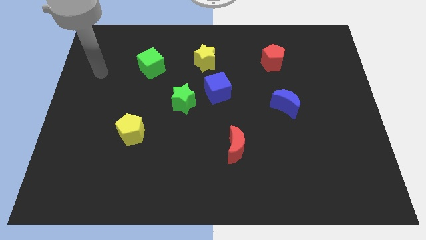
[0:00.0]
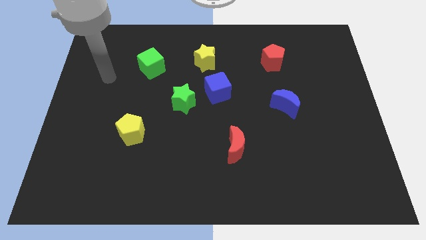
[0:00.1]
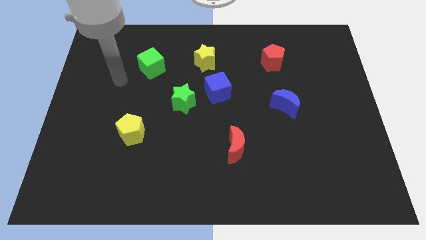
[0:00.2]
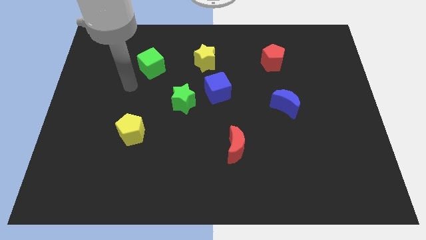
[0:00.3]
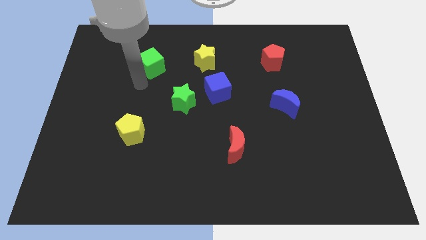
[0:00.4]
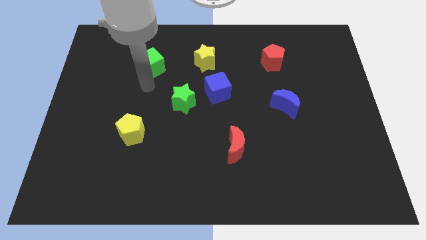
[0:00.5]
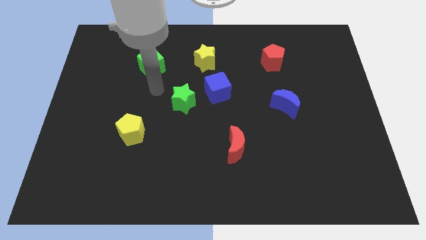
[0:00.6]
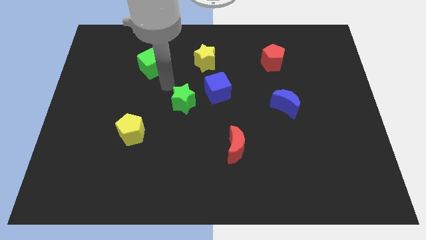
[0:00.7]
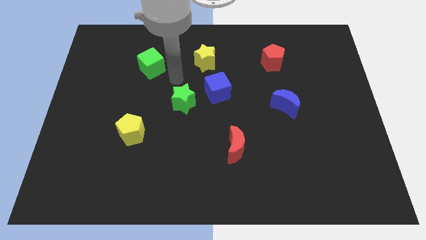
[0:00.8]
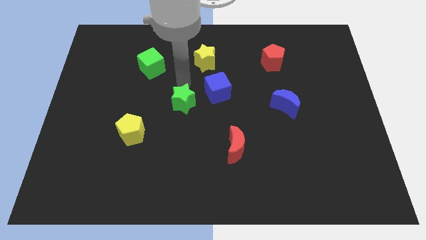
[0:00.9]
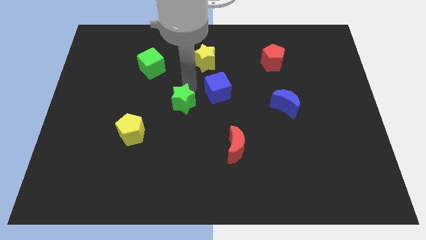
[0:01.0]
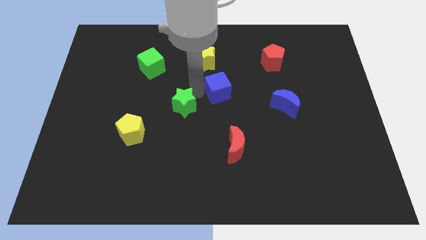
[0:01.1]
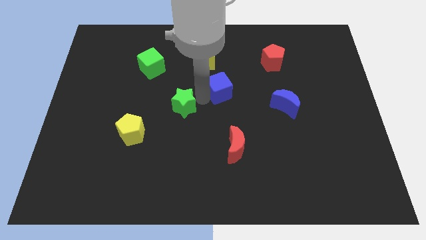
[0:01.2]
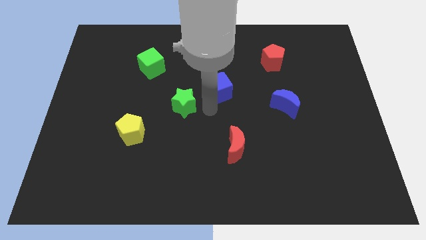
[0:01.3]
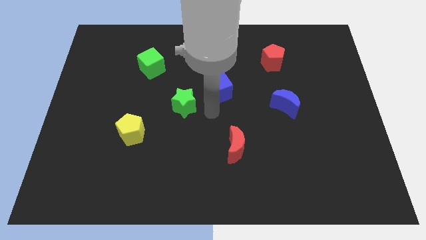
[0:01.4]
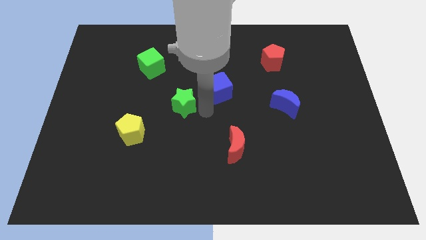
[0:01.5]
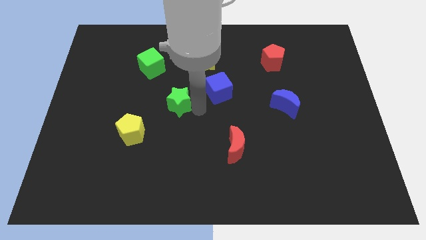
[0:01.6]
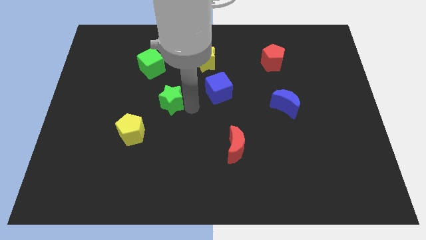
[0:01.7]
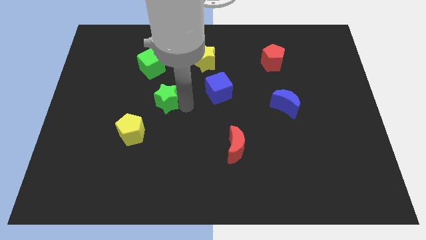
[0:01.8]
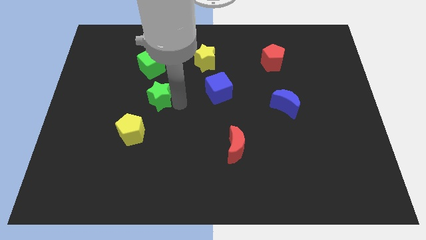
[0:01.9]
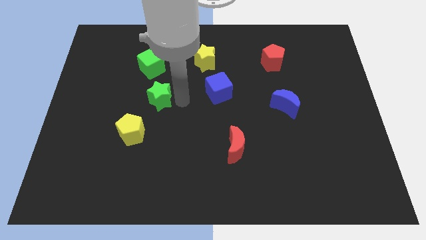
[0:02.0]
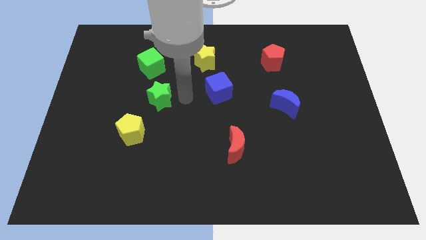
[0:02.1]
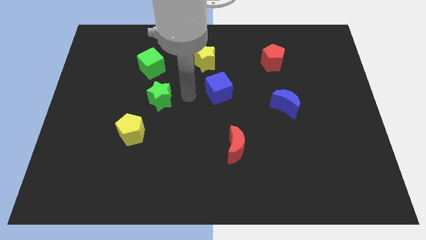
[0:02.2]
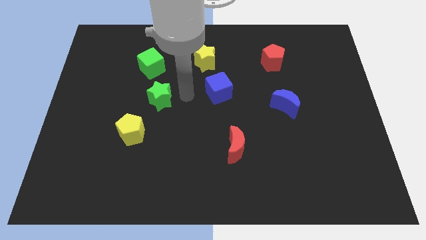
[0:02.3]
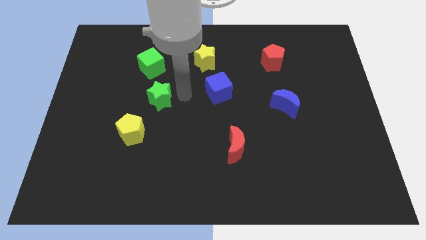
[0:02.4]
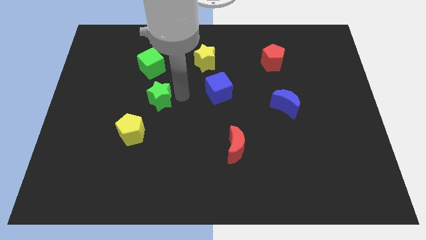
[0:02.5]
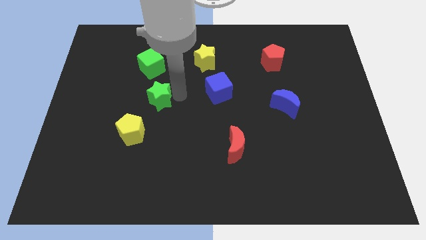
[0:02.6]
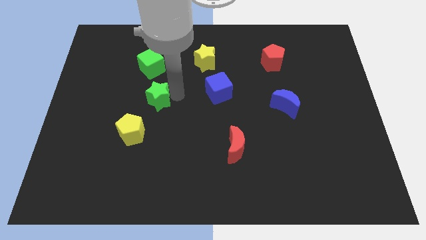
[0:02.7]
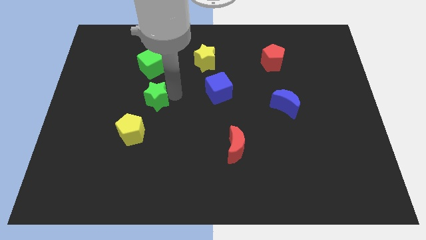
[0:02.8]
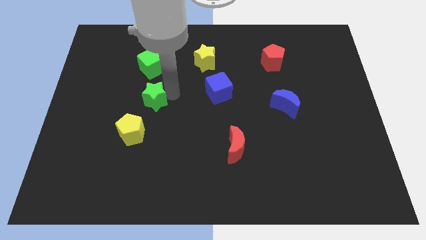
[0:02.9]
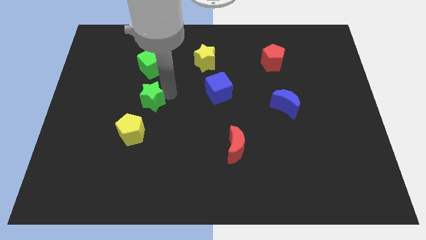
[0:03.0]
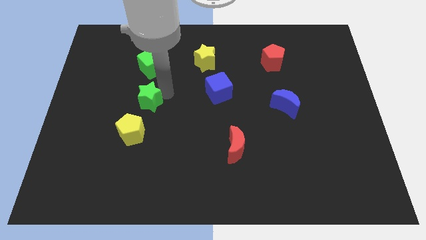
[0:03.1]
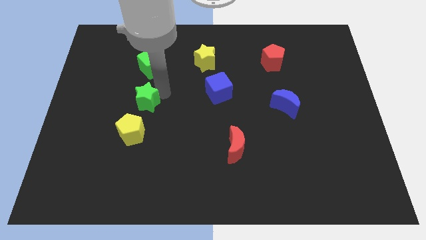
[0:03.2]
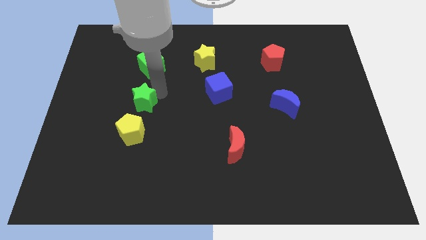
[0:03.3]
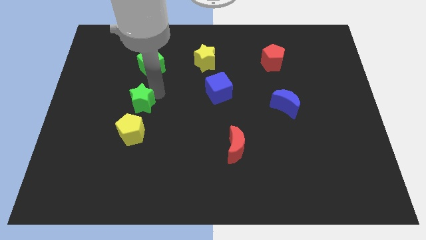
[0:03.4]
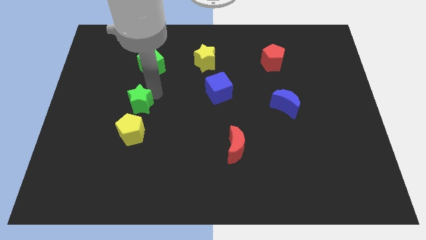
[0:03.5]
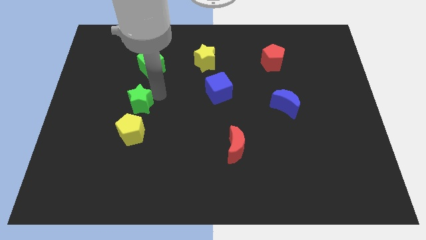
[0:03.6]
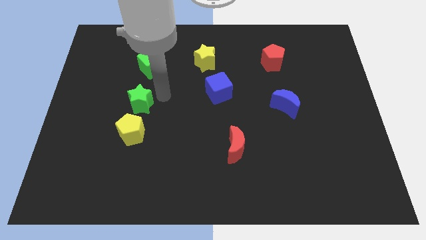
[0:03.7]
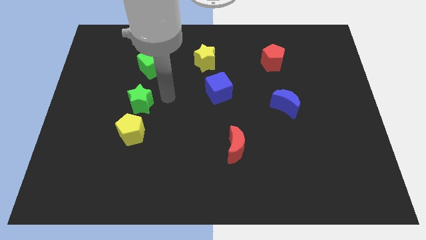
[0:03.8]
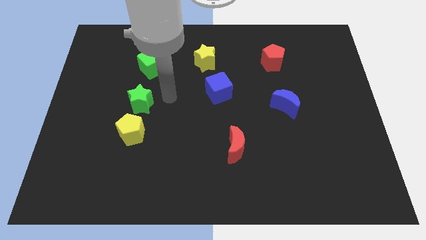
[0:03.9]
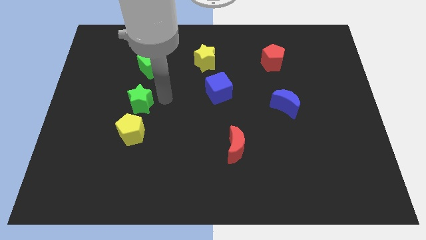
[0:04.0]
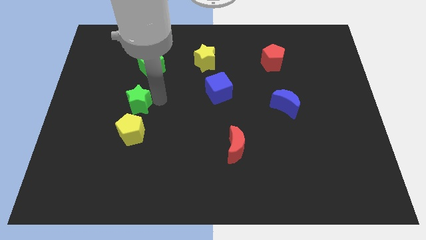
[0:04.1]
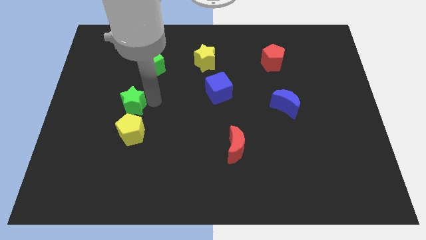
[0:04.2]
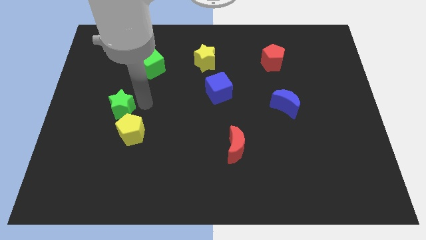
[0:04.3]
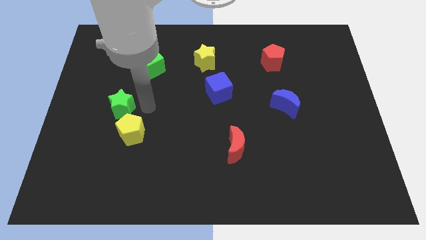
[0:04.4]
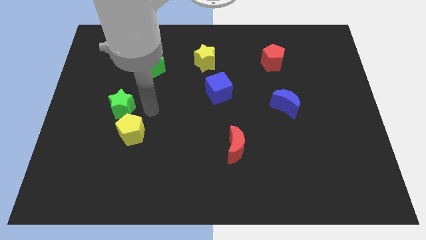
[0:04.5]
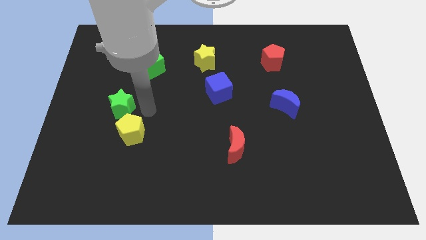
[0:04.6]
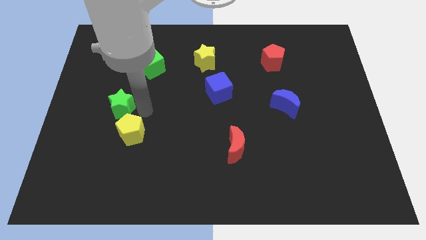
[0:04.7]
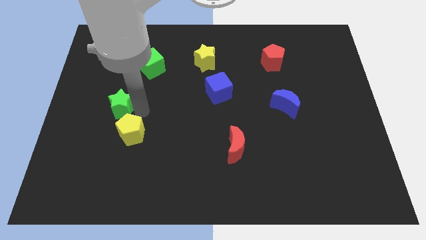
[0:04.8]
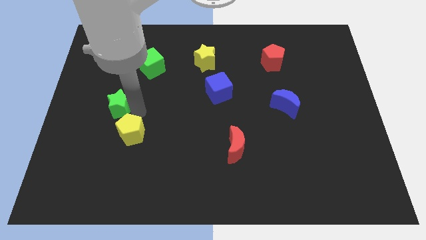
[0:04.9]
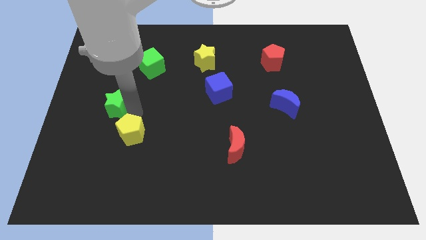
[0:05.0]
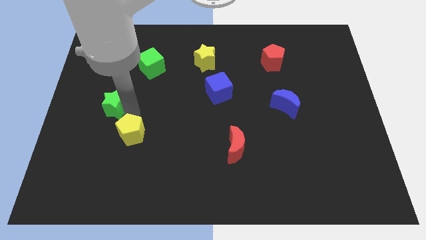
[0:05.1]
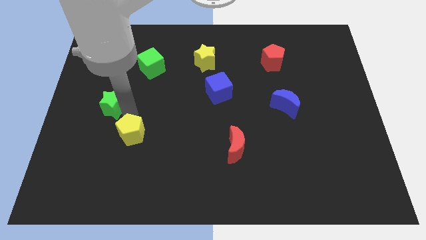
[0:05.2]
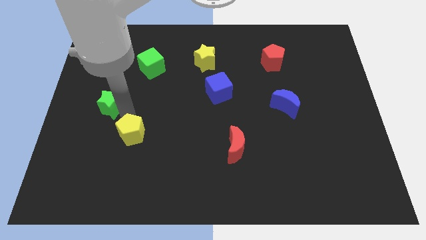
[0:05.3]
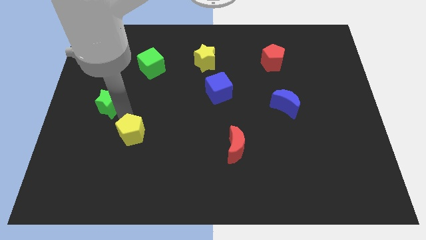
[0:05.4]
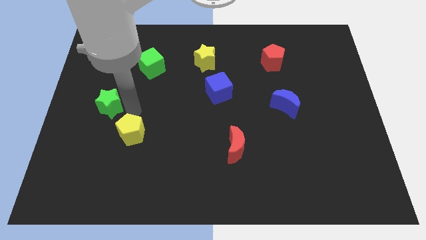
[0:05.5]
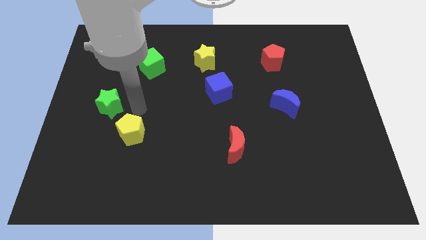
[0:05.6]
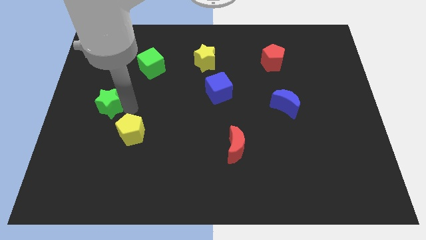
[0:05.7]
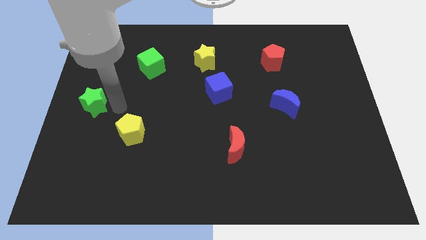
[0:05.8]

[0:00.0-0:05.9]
put the green star to the center left

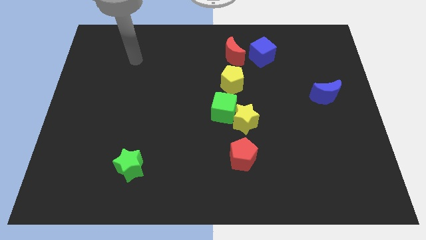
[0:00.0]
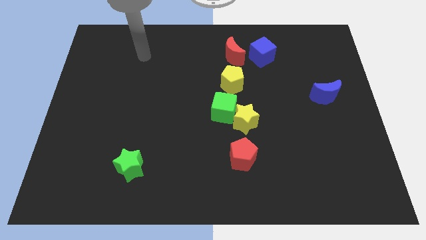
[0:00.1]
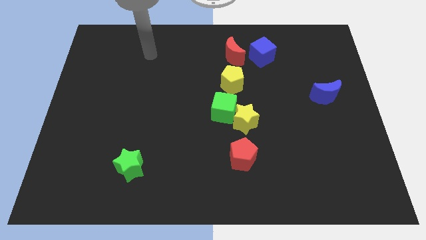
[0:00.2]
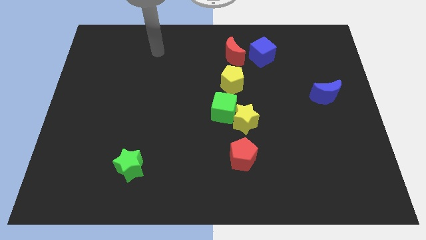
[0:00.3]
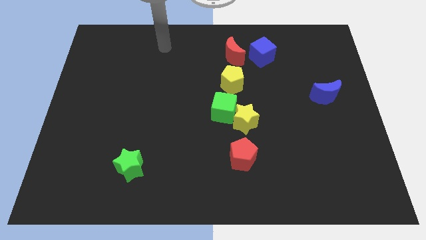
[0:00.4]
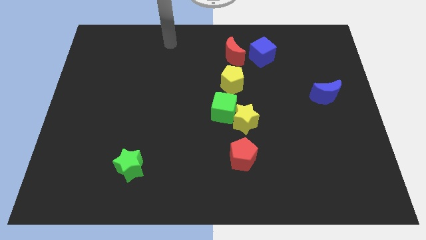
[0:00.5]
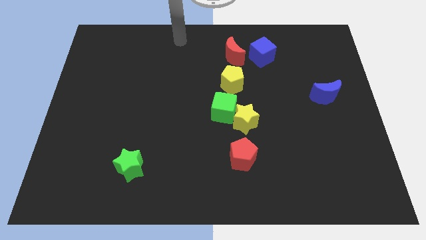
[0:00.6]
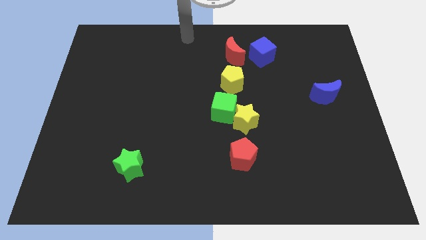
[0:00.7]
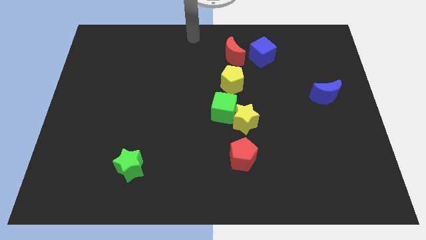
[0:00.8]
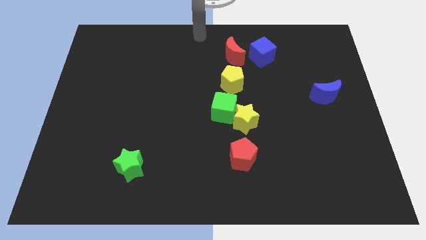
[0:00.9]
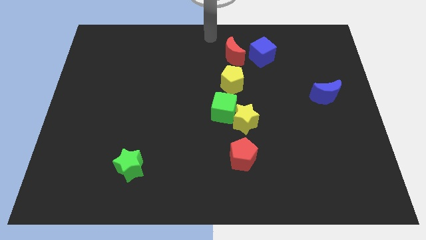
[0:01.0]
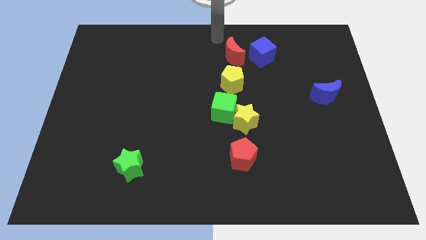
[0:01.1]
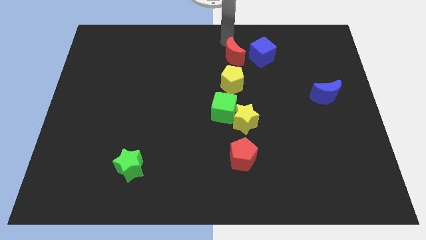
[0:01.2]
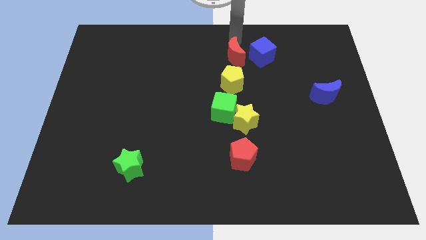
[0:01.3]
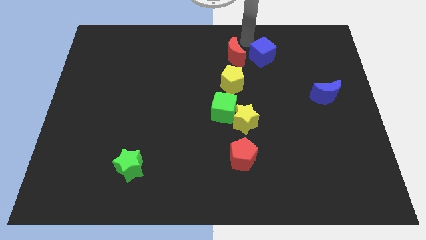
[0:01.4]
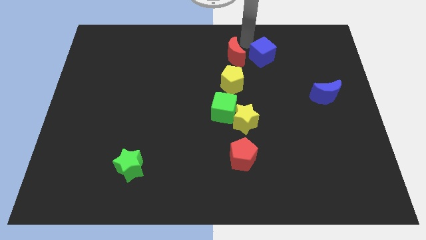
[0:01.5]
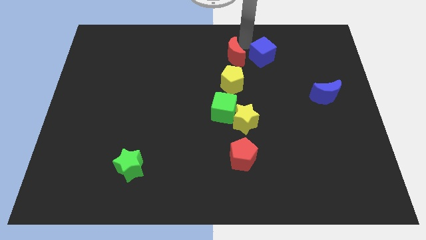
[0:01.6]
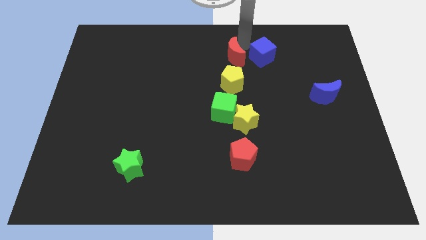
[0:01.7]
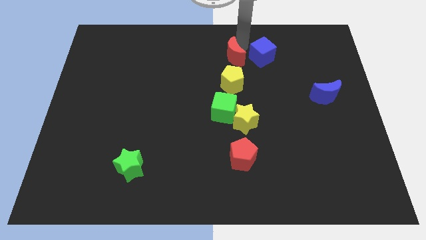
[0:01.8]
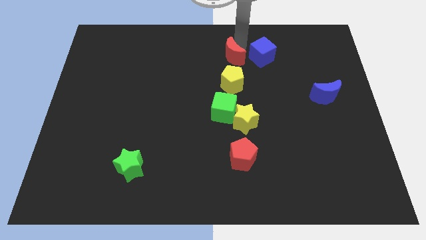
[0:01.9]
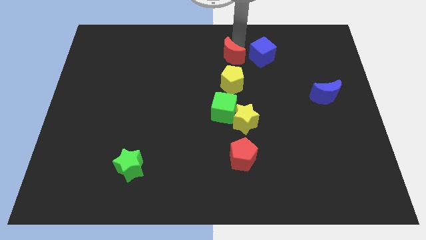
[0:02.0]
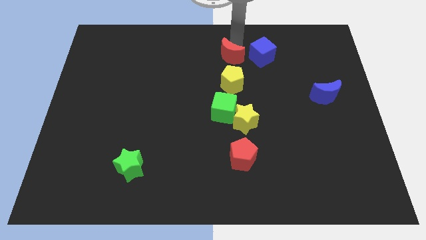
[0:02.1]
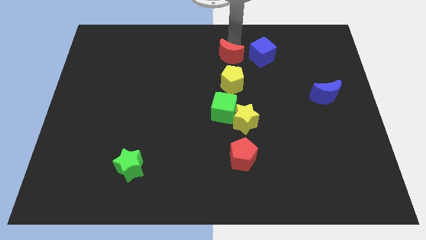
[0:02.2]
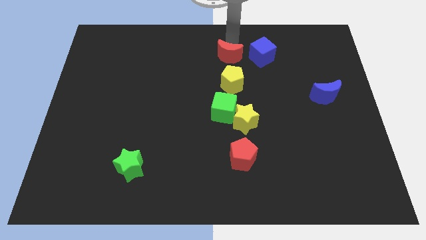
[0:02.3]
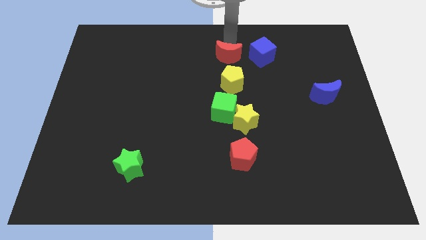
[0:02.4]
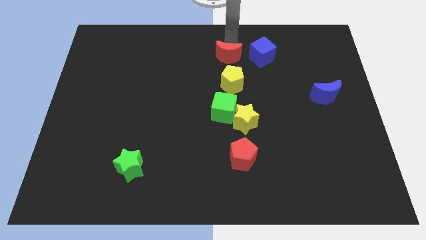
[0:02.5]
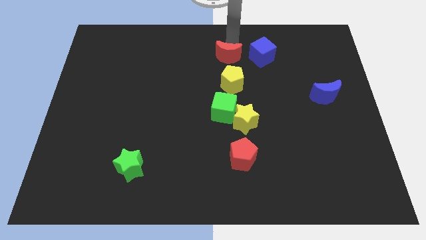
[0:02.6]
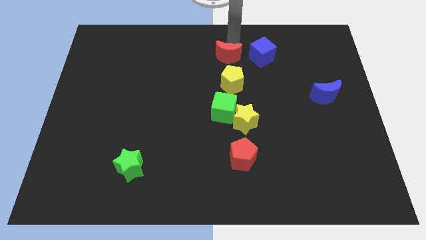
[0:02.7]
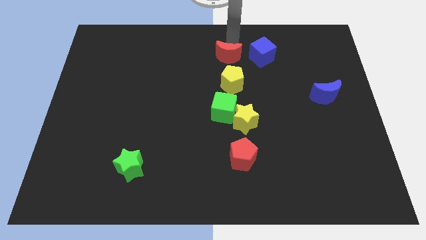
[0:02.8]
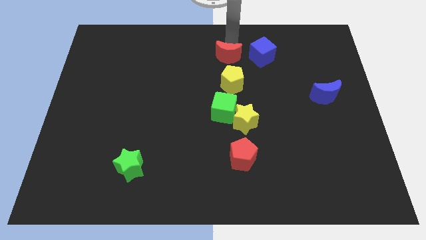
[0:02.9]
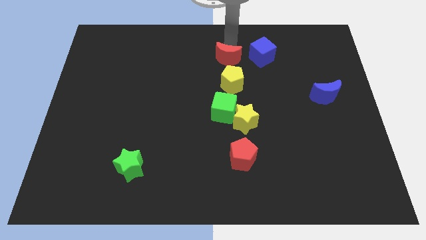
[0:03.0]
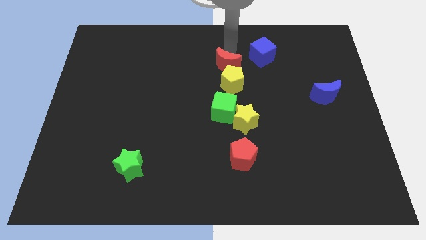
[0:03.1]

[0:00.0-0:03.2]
slide the red moon to the middle
